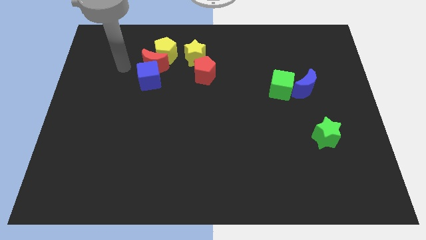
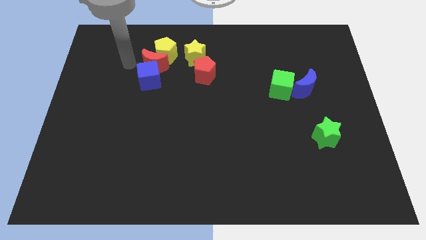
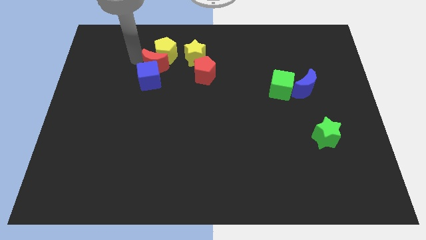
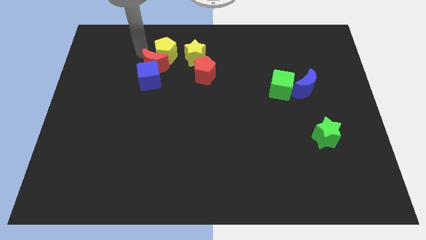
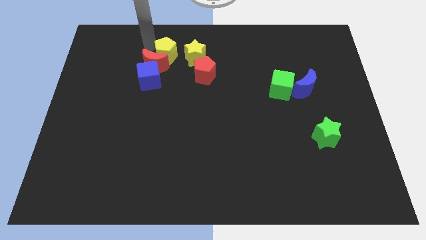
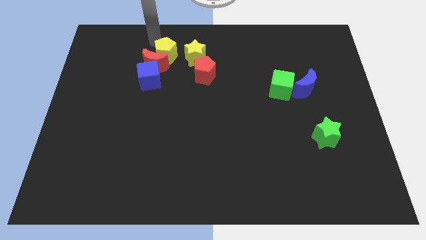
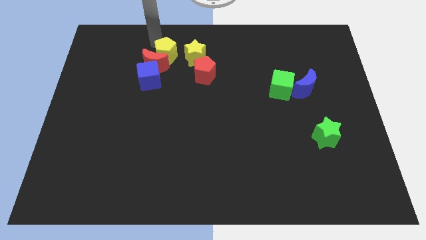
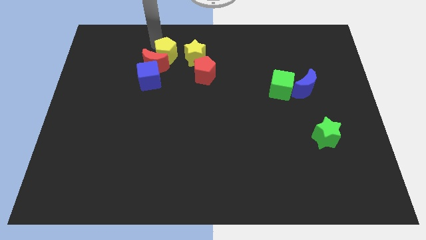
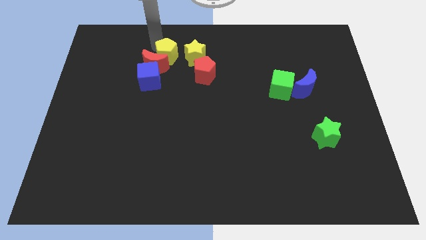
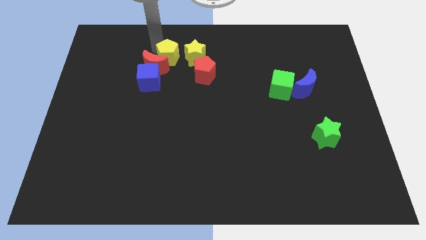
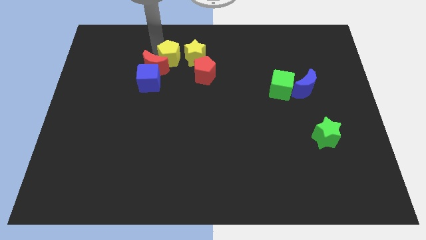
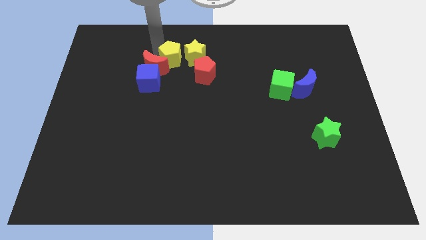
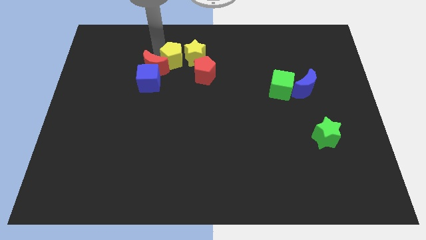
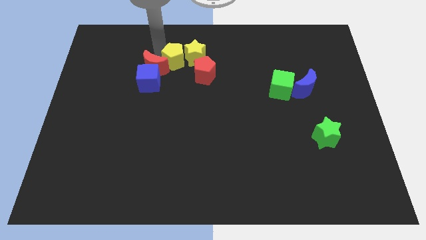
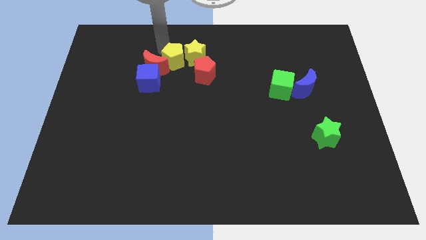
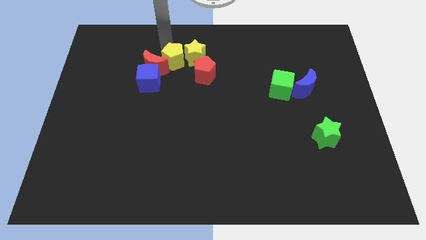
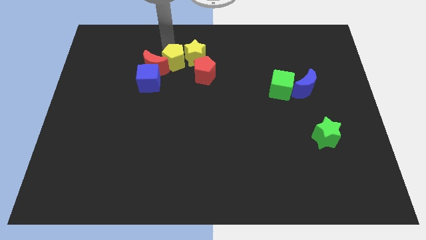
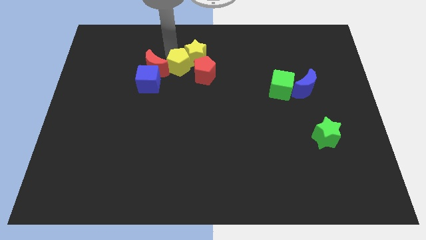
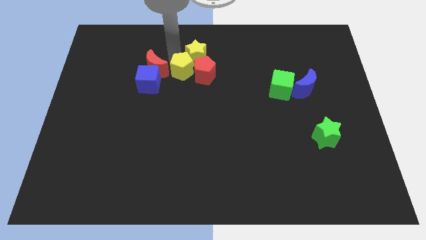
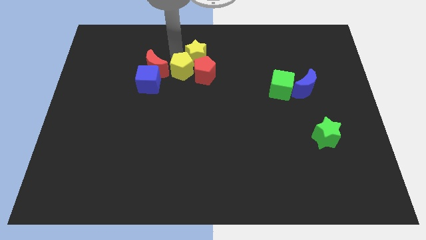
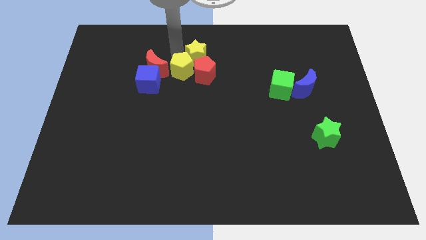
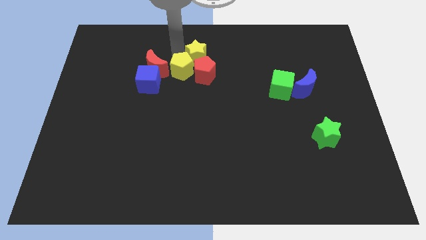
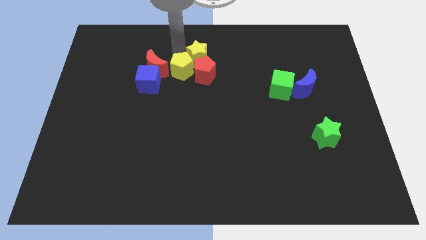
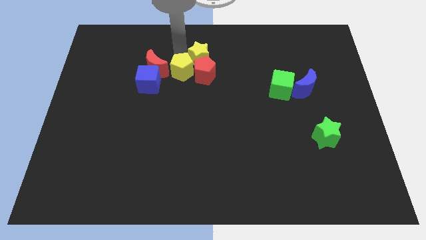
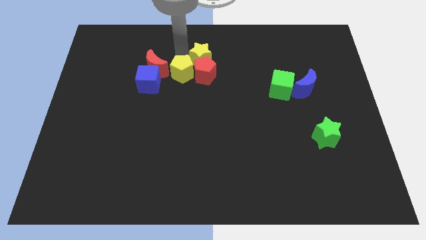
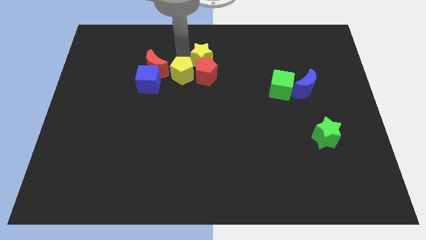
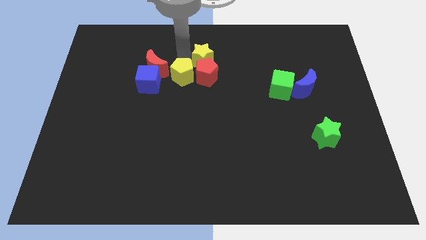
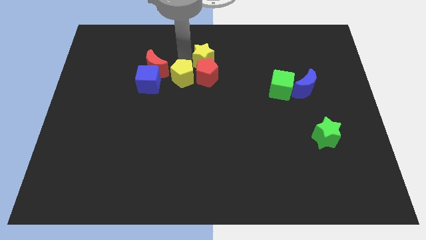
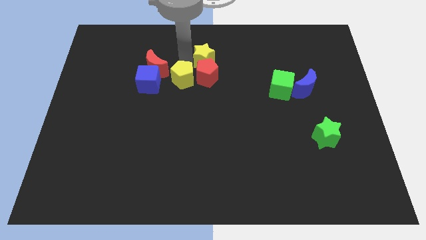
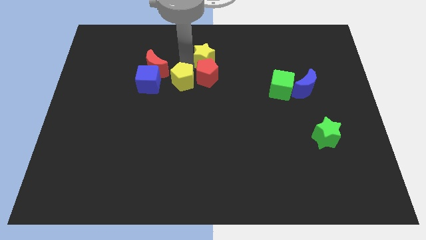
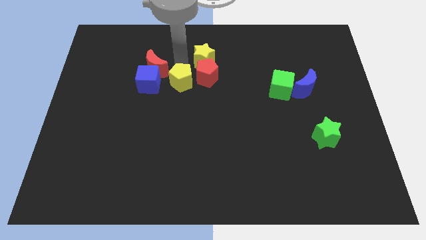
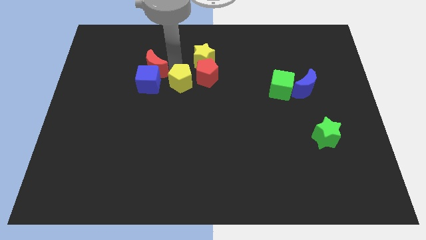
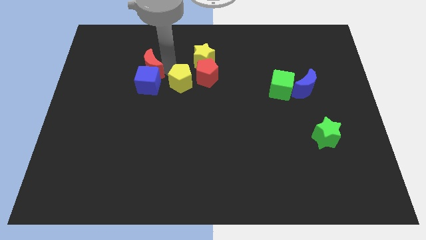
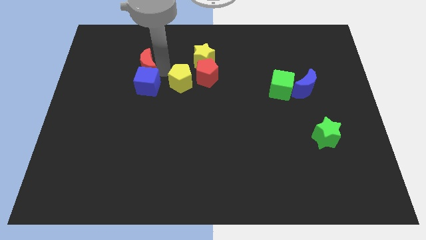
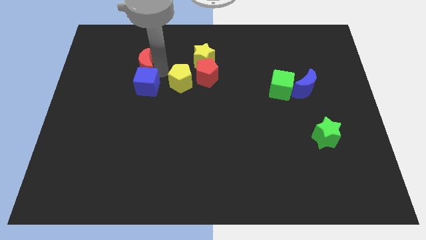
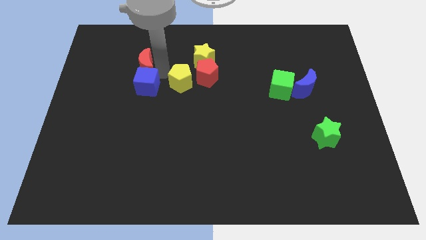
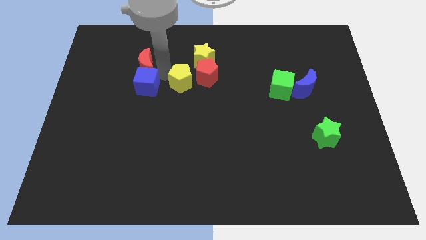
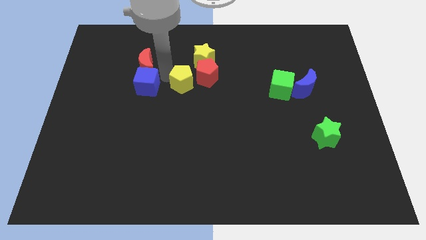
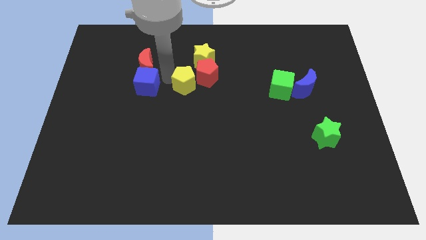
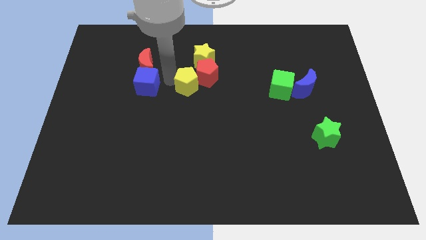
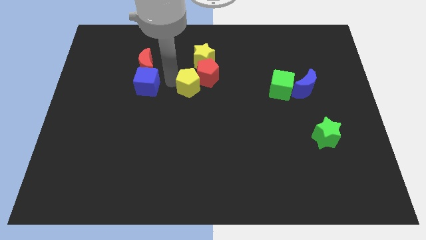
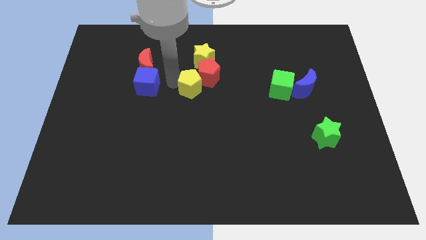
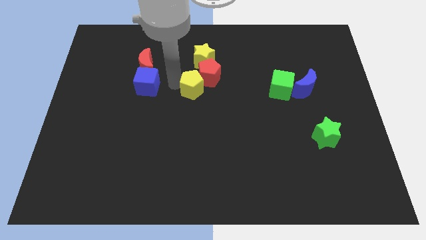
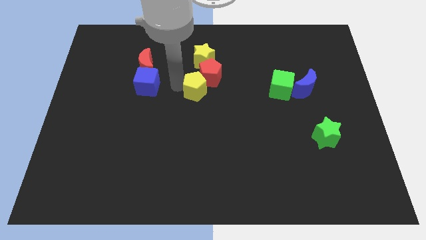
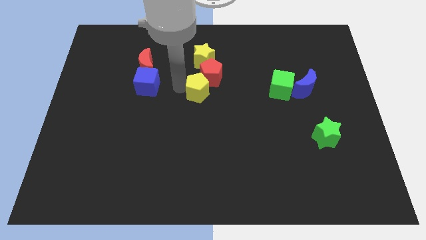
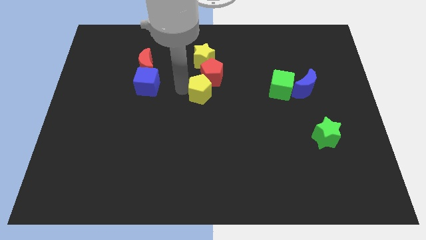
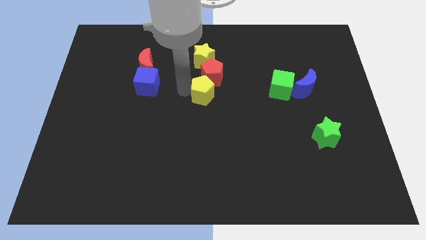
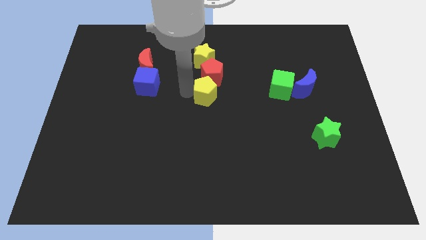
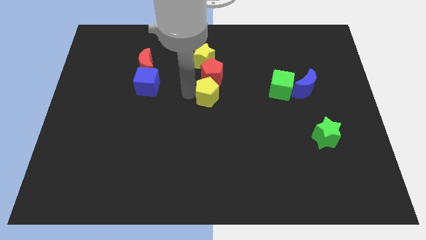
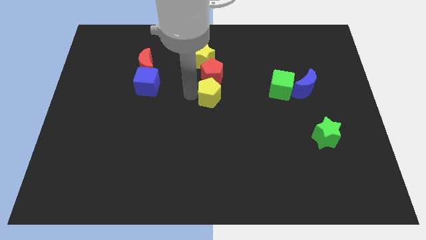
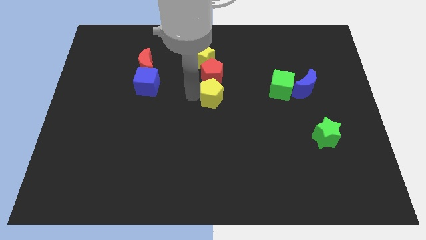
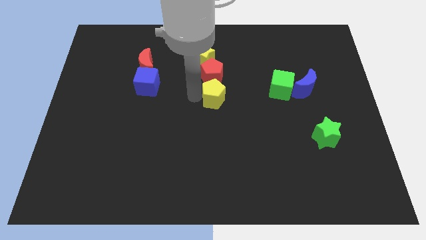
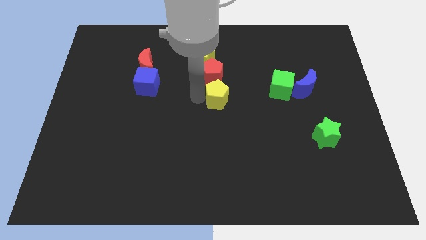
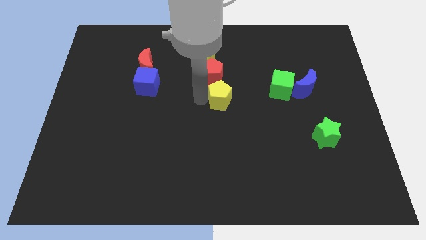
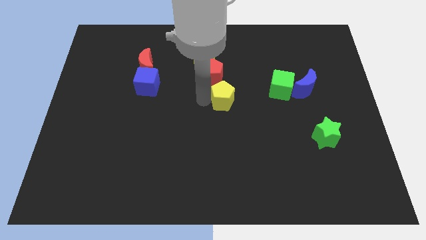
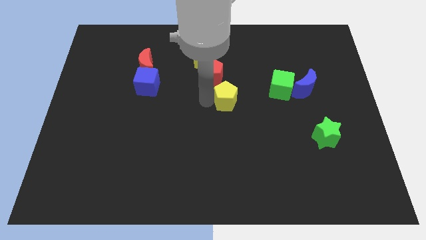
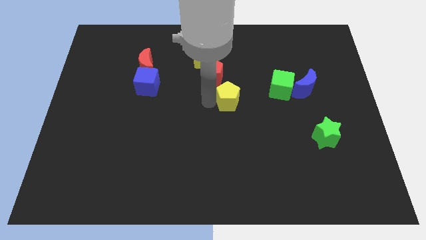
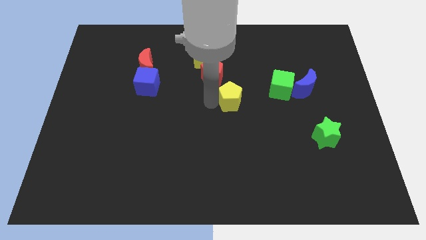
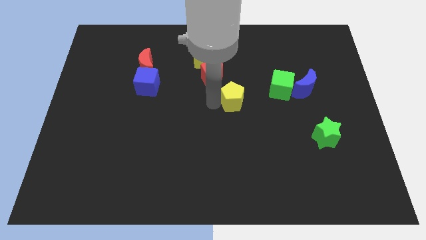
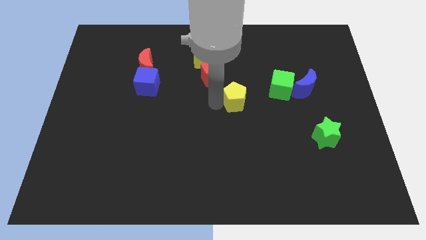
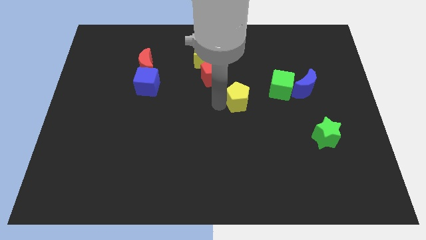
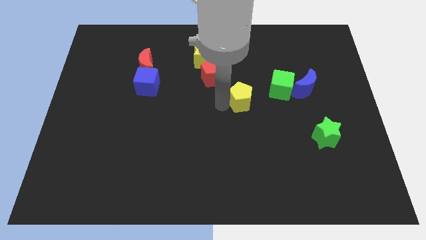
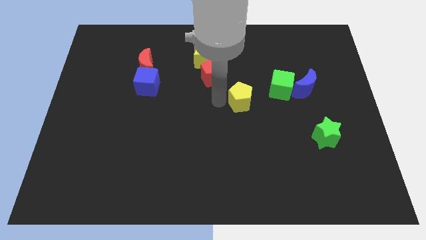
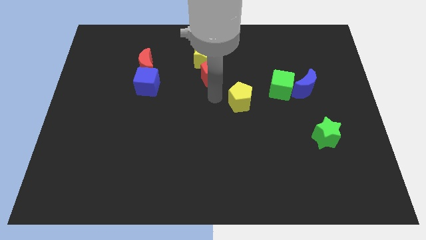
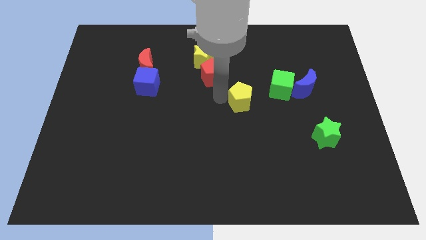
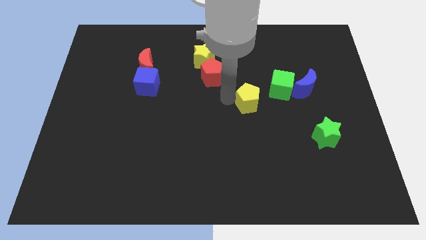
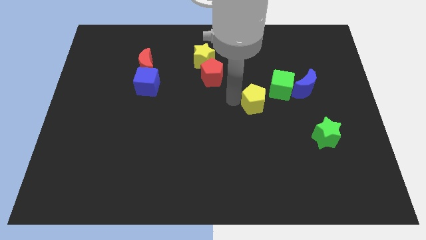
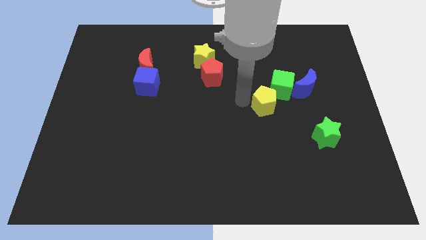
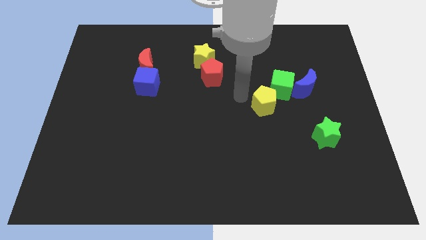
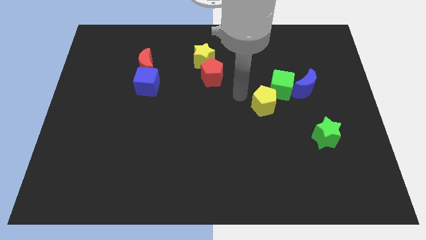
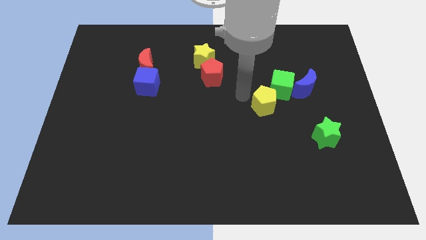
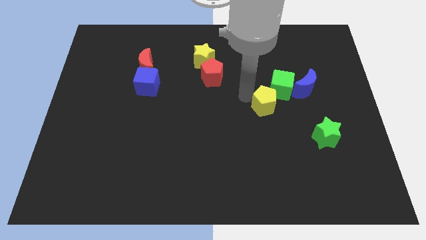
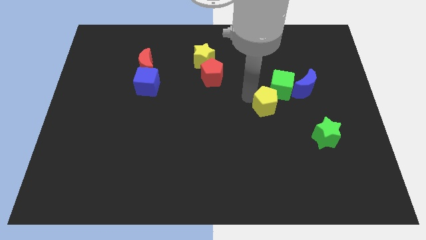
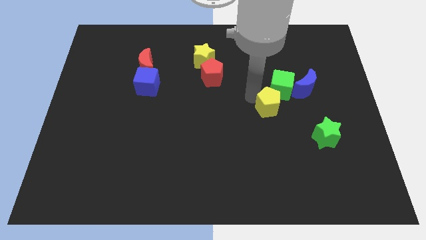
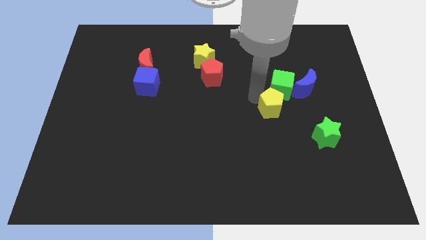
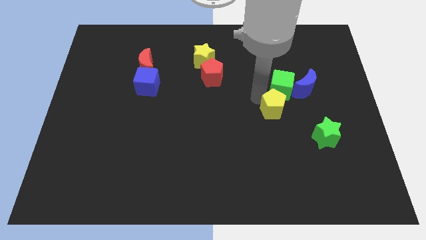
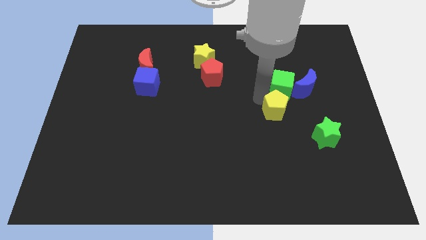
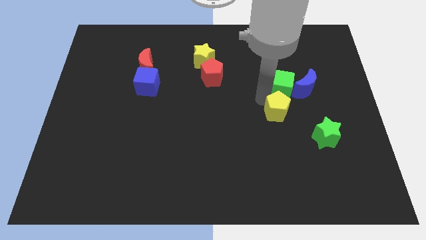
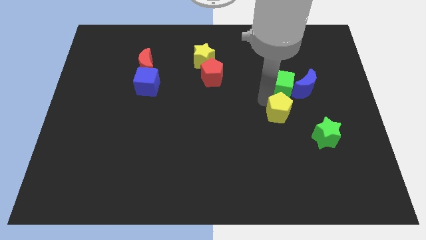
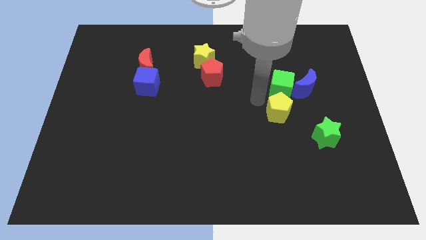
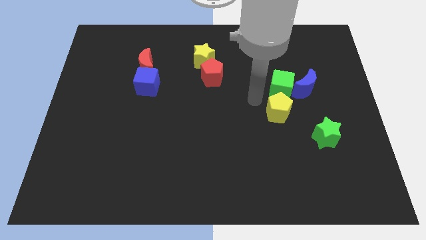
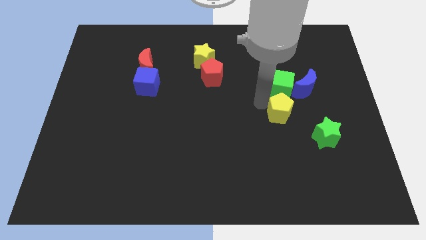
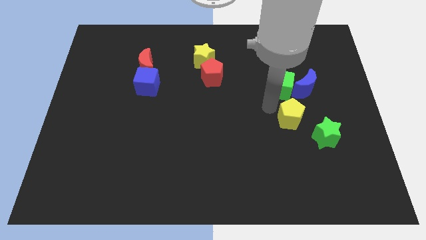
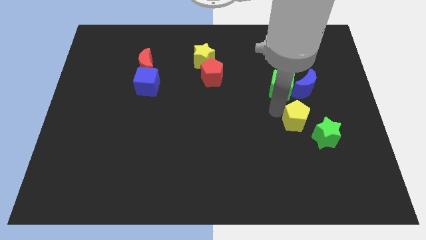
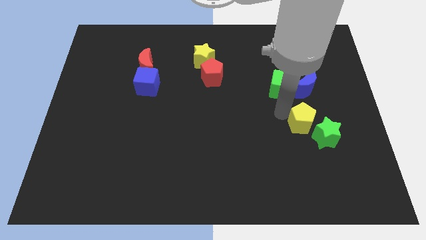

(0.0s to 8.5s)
put the yellow pentagon close to the green star
